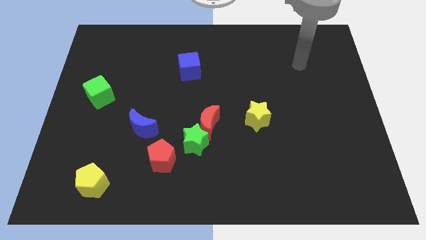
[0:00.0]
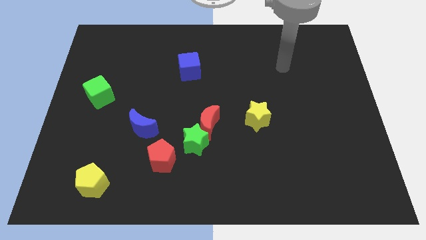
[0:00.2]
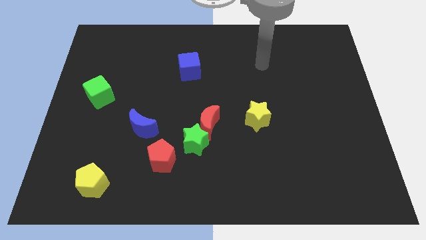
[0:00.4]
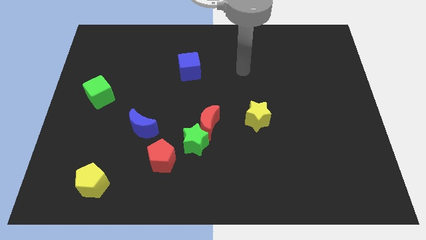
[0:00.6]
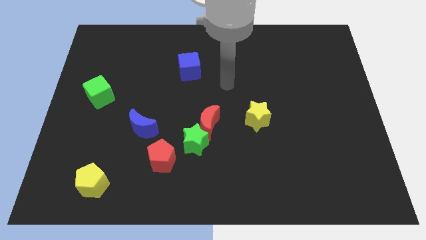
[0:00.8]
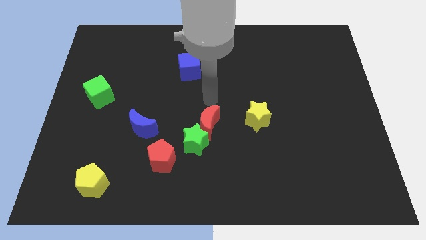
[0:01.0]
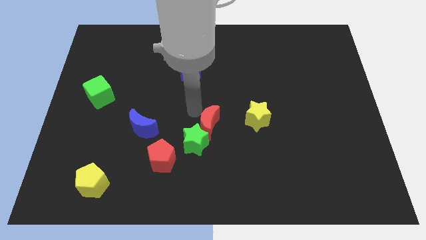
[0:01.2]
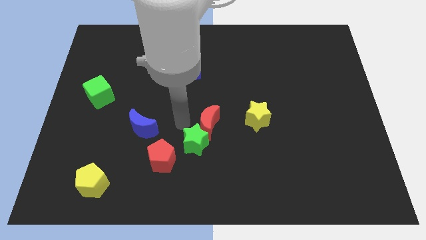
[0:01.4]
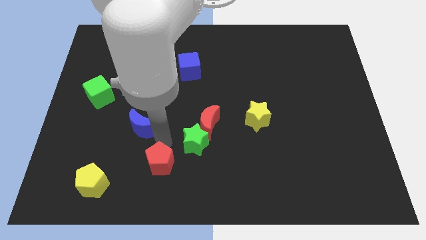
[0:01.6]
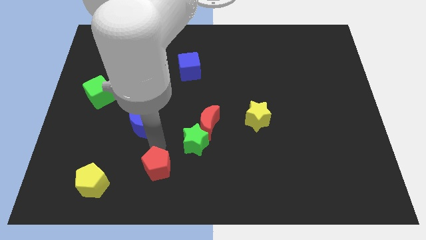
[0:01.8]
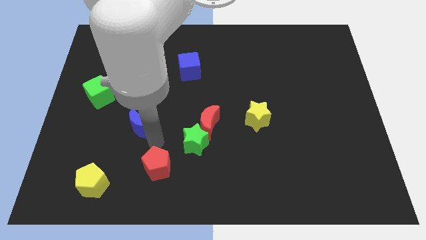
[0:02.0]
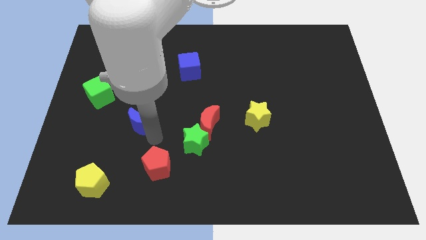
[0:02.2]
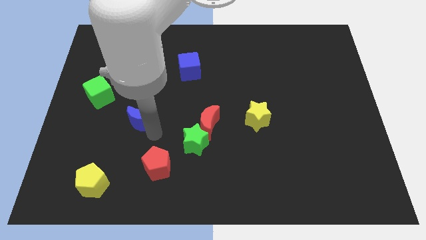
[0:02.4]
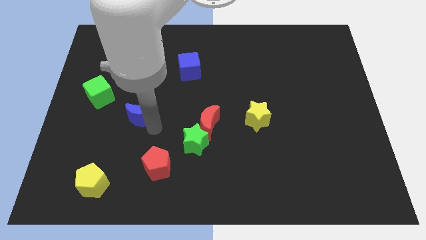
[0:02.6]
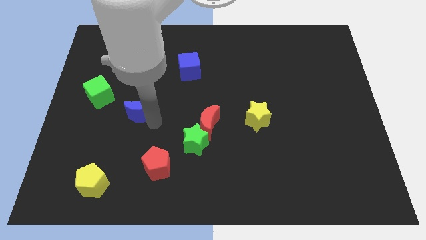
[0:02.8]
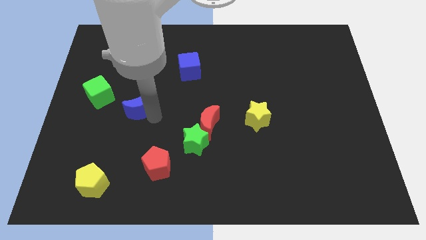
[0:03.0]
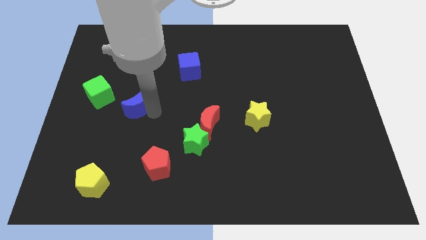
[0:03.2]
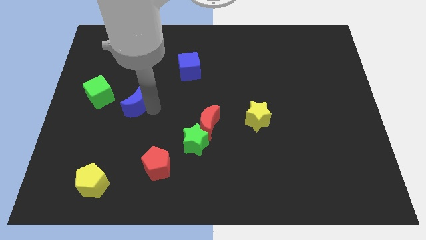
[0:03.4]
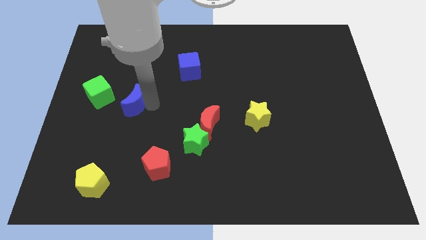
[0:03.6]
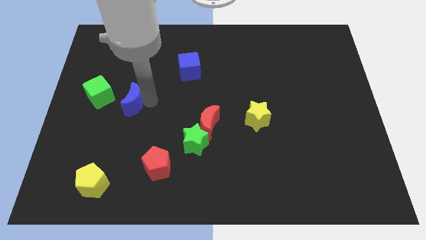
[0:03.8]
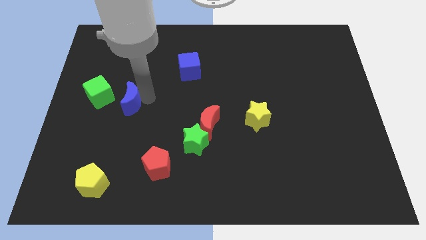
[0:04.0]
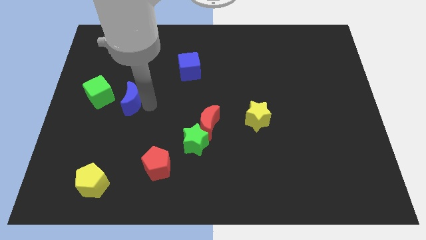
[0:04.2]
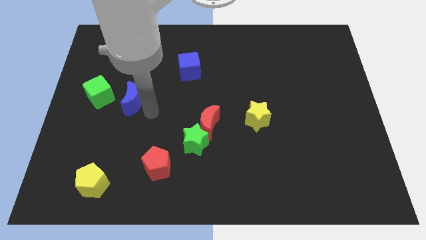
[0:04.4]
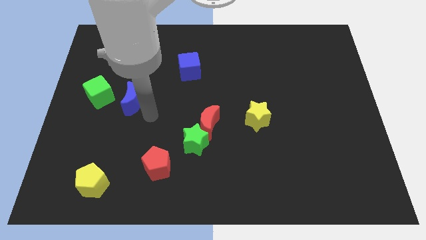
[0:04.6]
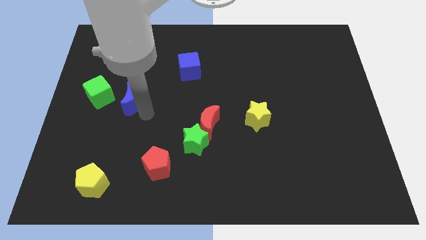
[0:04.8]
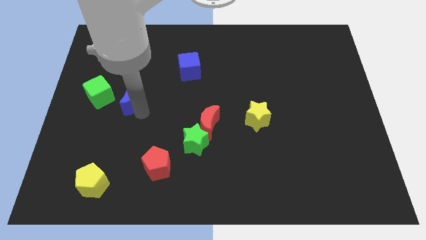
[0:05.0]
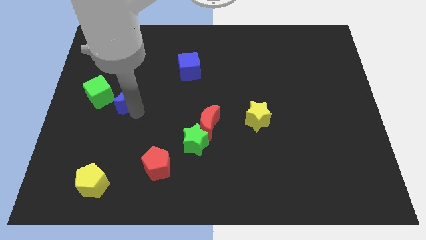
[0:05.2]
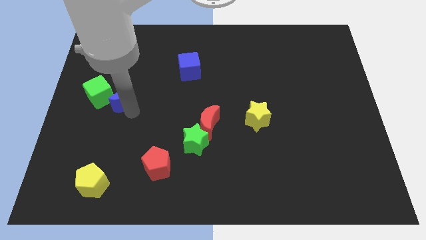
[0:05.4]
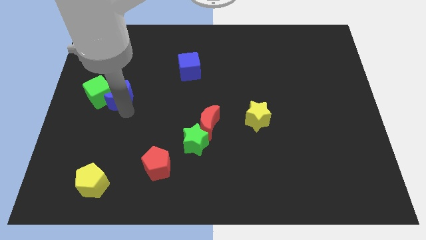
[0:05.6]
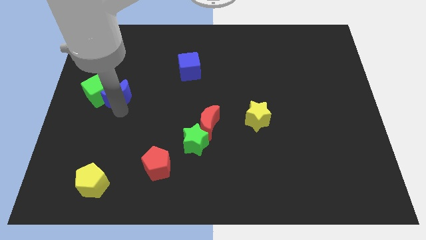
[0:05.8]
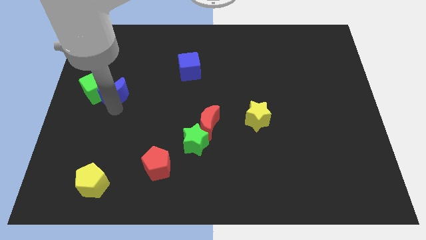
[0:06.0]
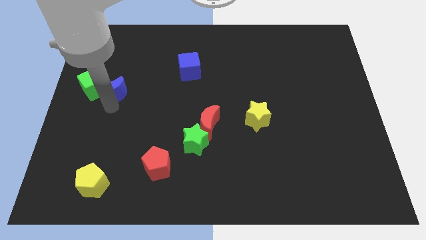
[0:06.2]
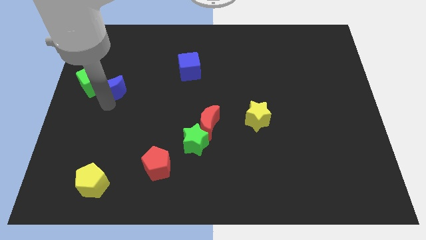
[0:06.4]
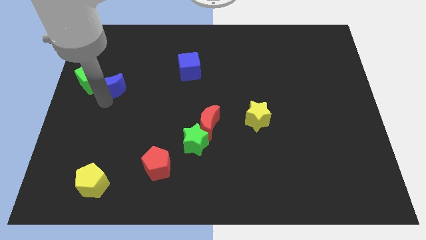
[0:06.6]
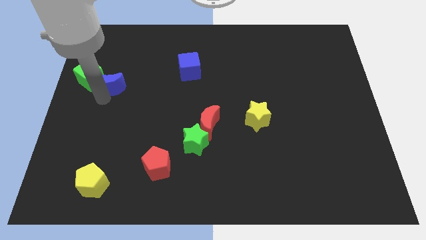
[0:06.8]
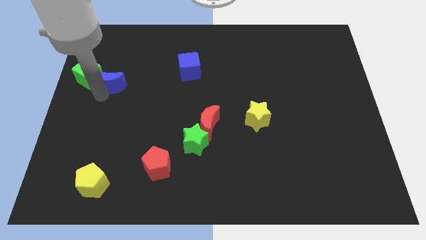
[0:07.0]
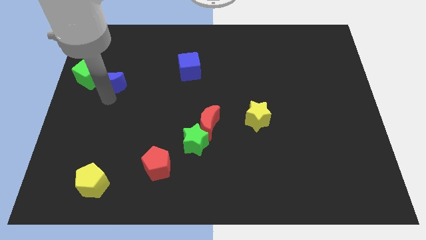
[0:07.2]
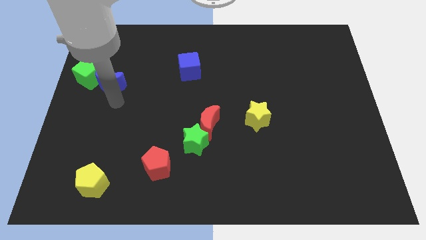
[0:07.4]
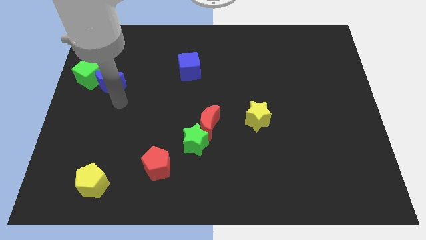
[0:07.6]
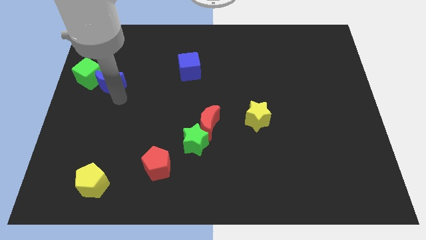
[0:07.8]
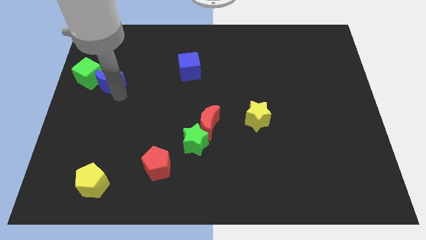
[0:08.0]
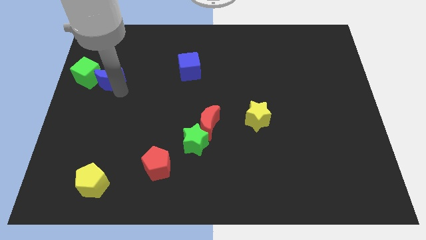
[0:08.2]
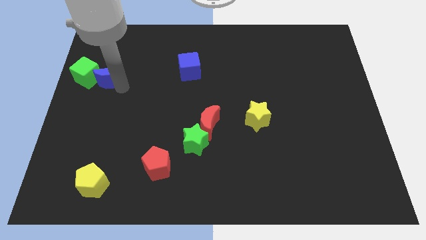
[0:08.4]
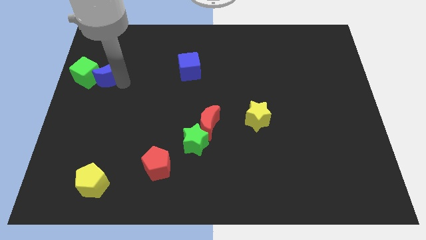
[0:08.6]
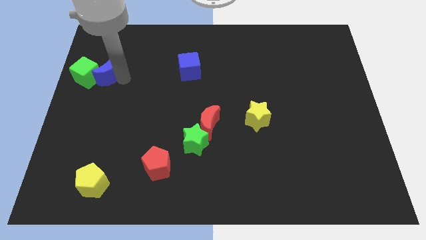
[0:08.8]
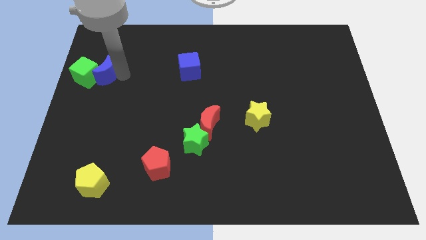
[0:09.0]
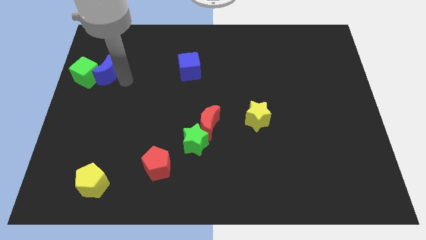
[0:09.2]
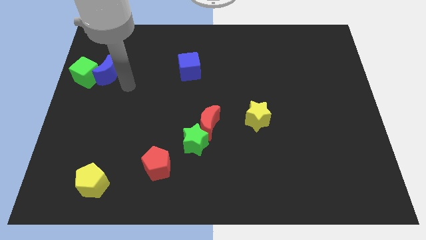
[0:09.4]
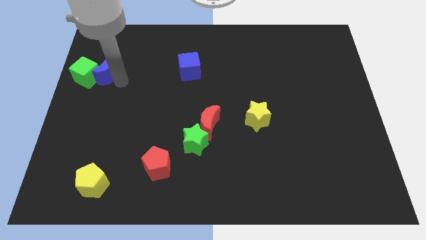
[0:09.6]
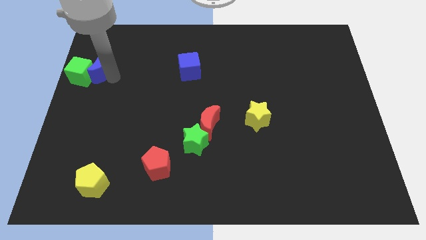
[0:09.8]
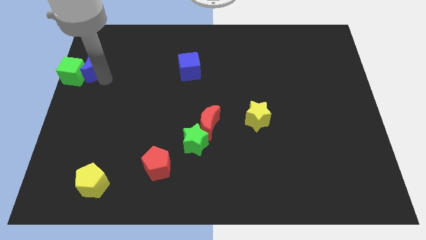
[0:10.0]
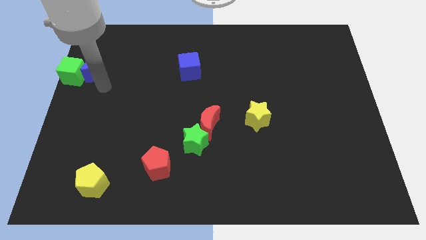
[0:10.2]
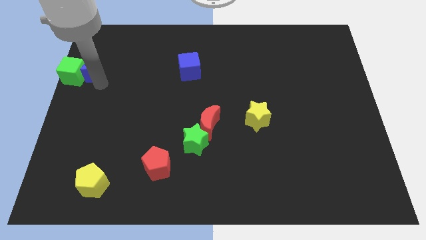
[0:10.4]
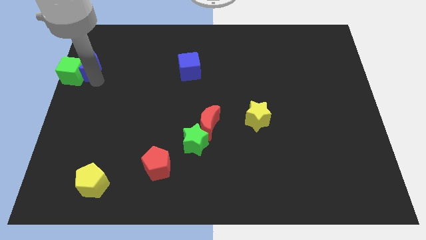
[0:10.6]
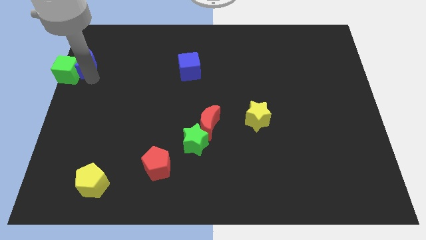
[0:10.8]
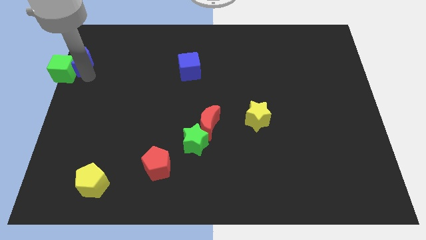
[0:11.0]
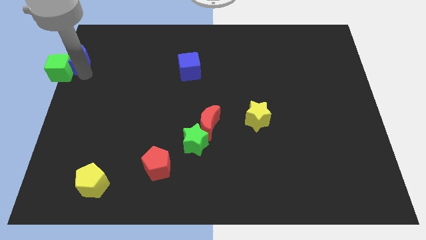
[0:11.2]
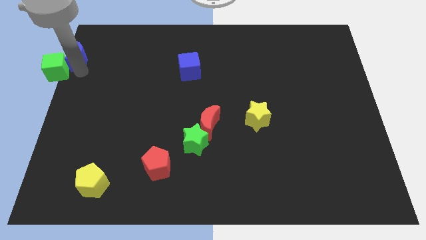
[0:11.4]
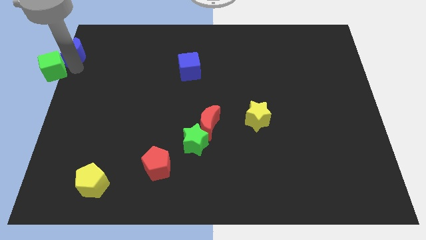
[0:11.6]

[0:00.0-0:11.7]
put the blue moon to the top left of the board
